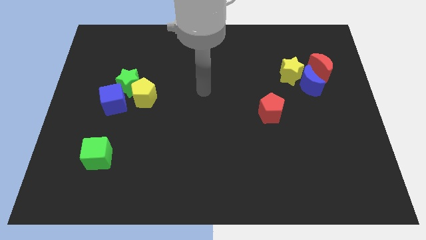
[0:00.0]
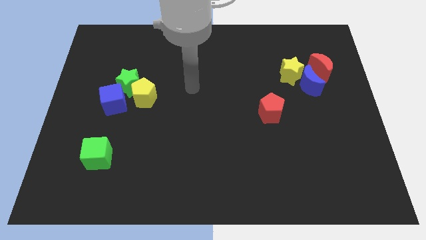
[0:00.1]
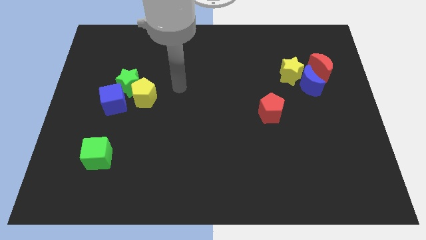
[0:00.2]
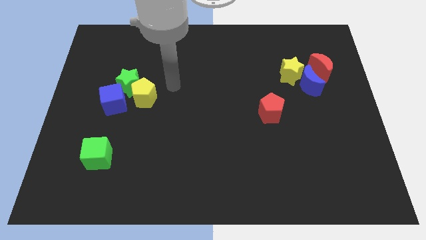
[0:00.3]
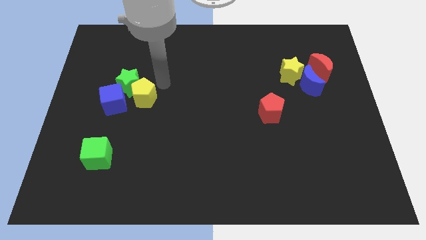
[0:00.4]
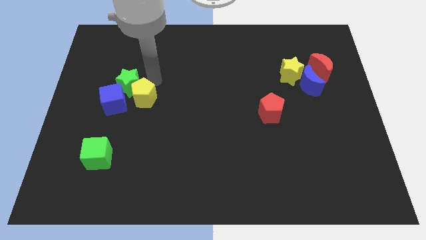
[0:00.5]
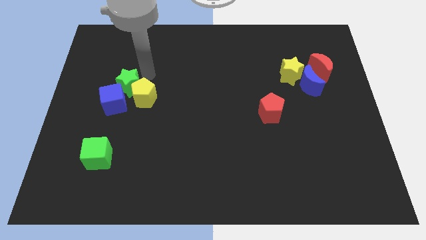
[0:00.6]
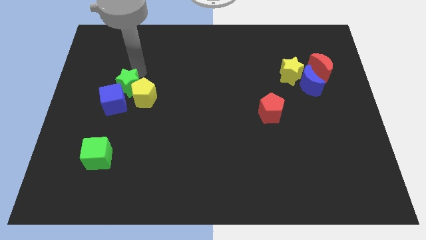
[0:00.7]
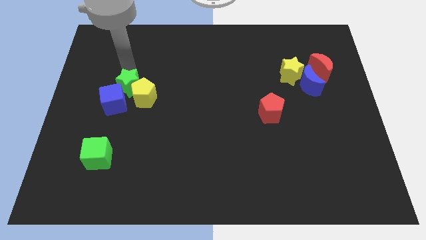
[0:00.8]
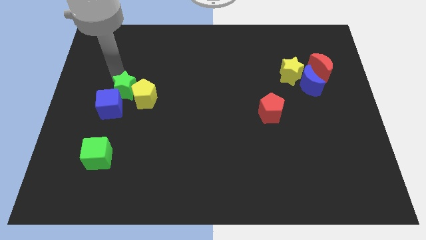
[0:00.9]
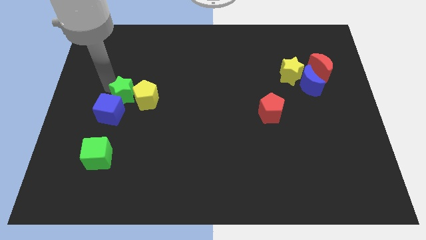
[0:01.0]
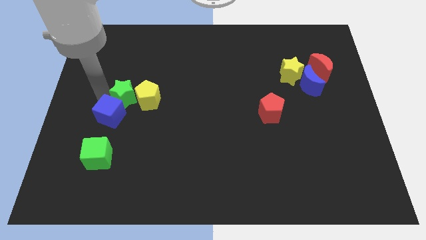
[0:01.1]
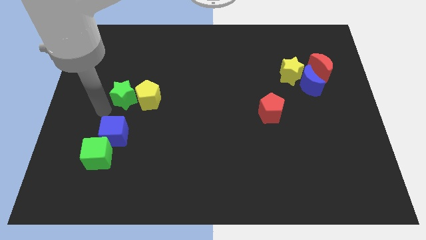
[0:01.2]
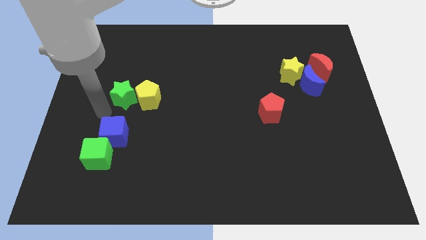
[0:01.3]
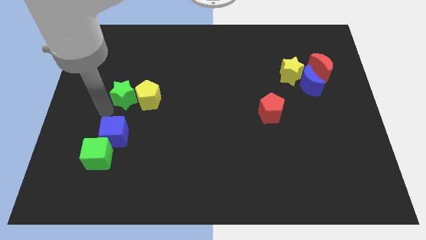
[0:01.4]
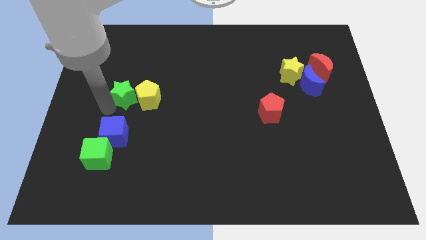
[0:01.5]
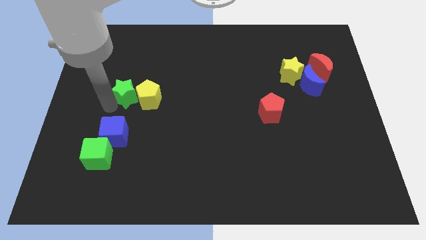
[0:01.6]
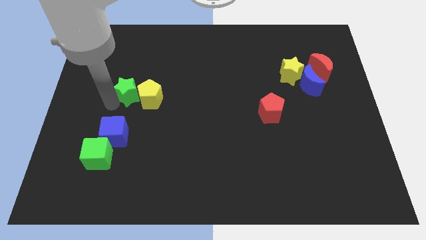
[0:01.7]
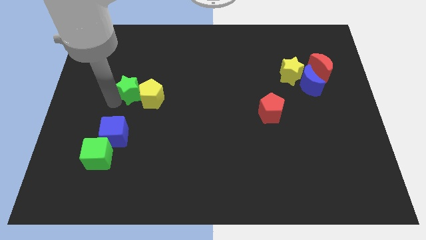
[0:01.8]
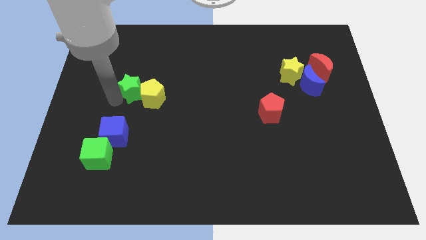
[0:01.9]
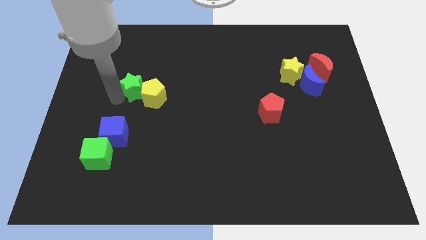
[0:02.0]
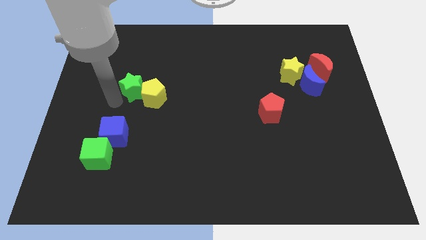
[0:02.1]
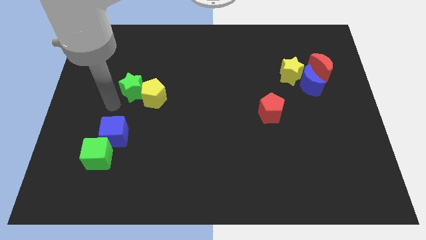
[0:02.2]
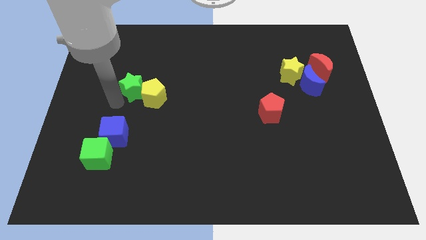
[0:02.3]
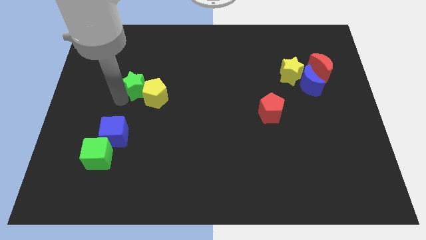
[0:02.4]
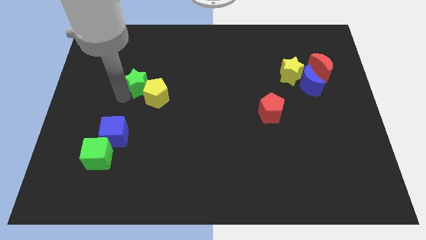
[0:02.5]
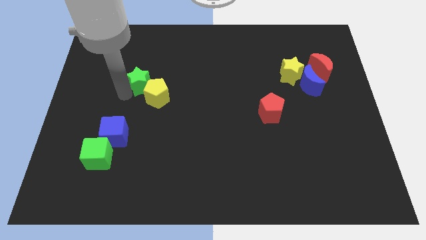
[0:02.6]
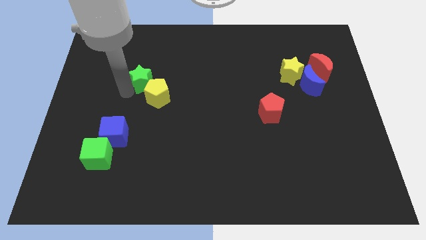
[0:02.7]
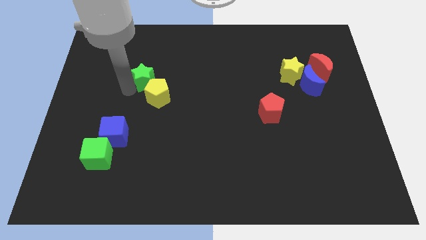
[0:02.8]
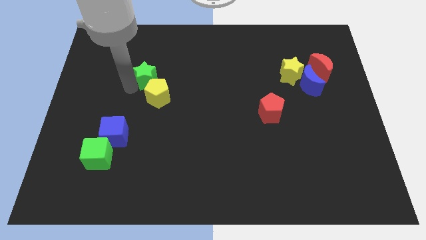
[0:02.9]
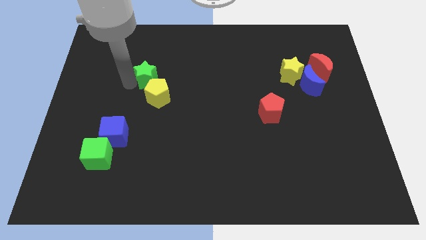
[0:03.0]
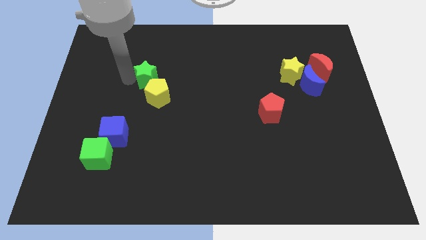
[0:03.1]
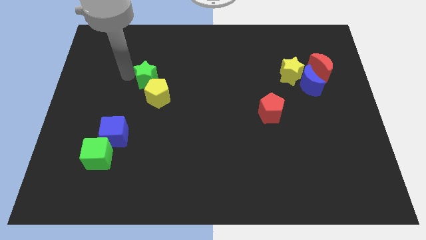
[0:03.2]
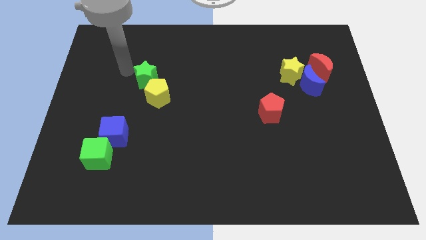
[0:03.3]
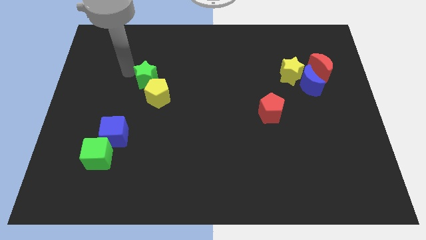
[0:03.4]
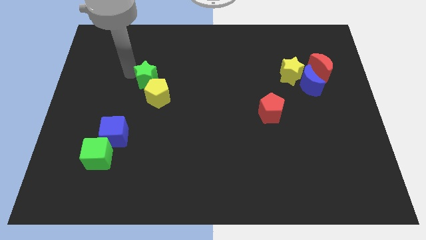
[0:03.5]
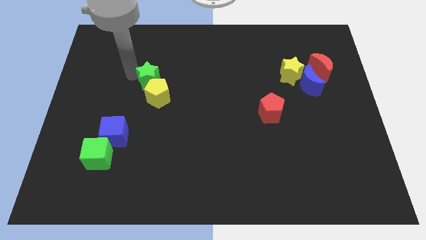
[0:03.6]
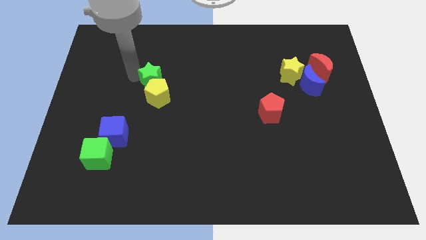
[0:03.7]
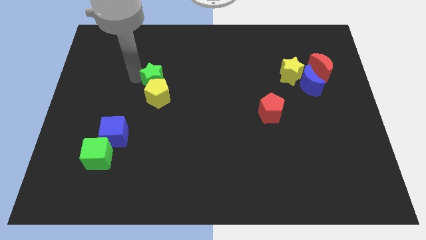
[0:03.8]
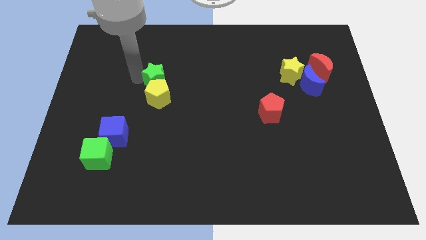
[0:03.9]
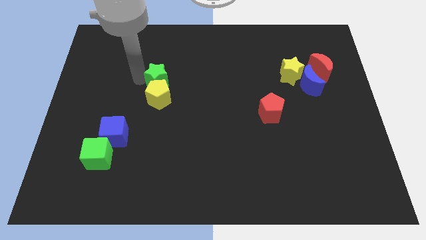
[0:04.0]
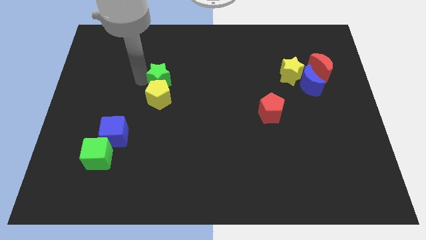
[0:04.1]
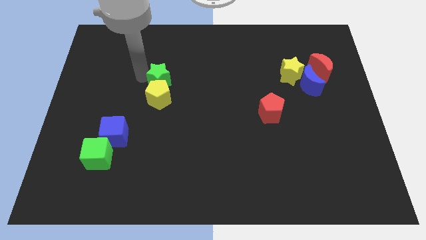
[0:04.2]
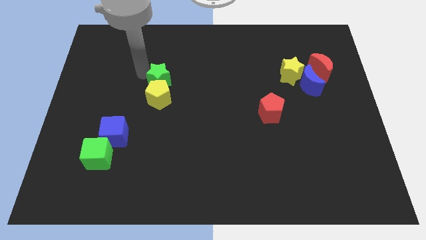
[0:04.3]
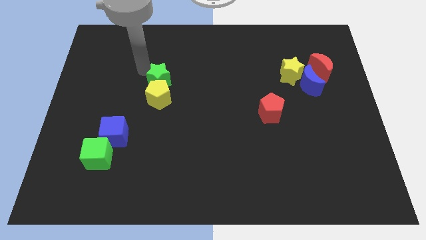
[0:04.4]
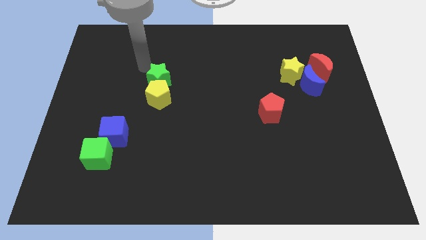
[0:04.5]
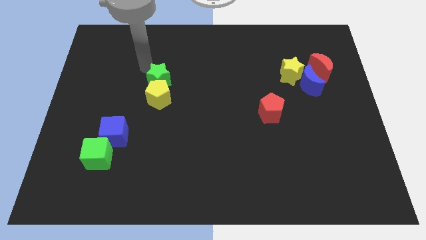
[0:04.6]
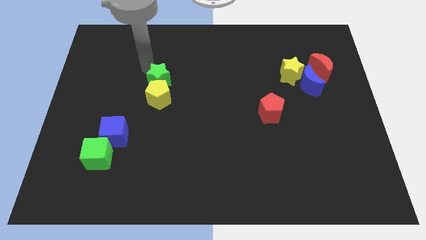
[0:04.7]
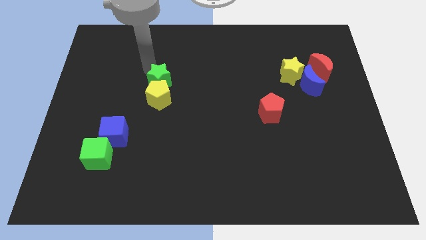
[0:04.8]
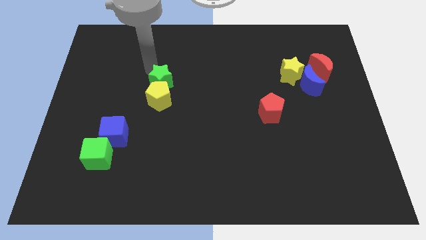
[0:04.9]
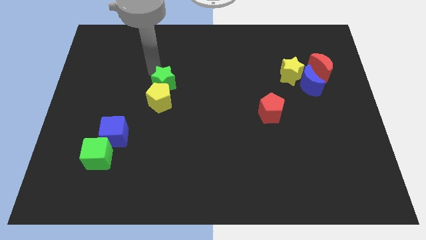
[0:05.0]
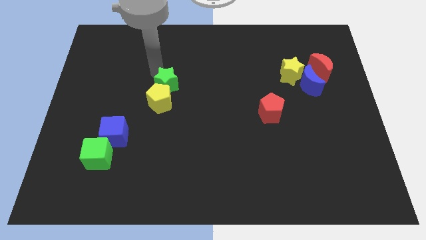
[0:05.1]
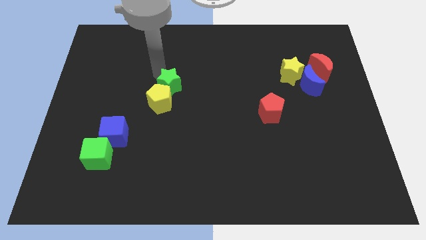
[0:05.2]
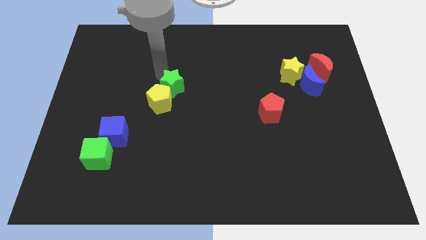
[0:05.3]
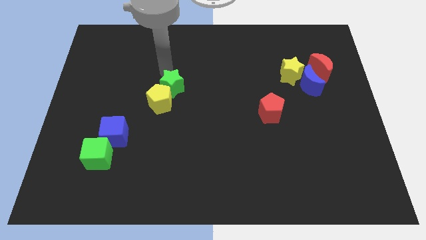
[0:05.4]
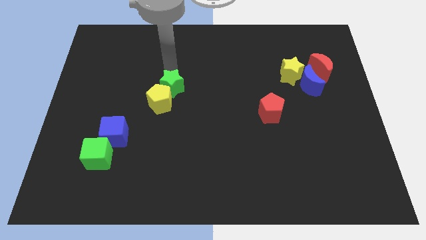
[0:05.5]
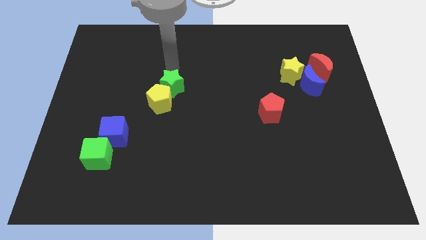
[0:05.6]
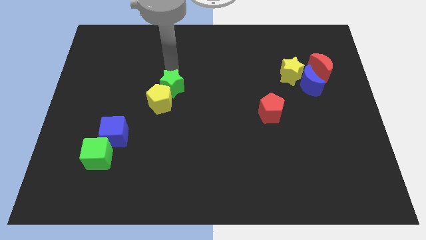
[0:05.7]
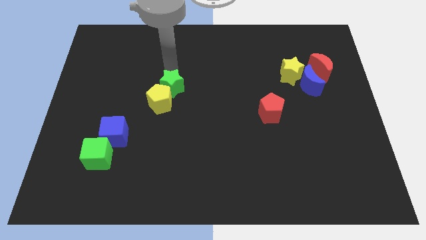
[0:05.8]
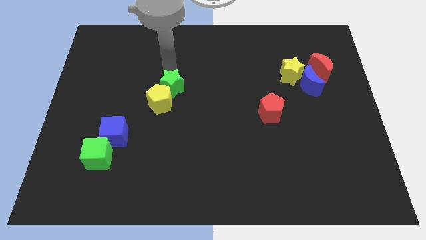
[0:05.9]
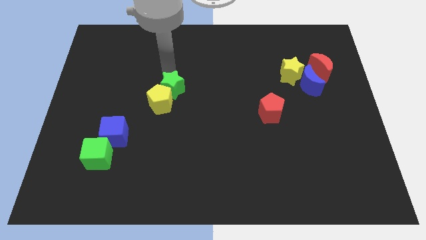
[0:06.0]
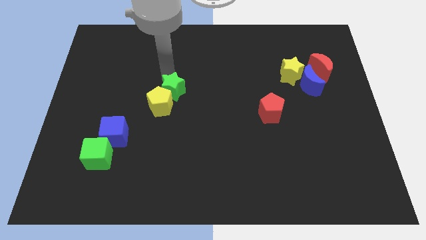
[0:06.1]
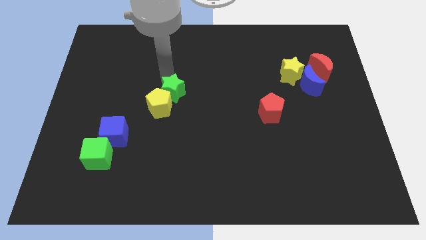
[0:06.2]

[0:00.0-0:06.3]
slide the green star down and right diagonally somewhat

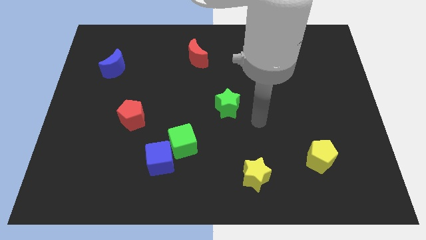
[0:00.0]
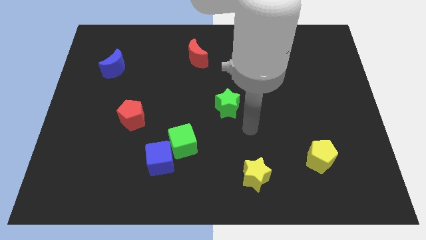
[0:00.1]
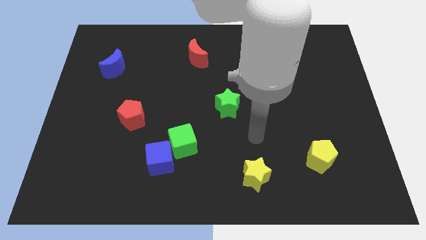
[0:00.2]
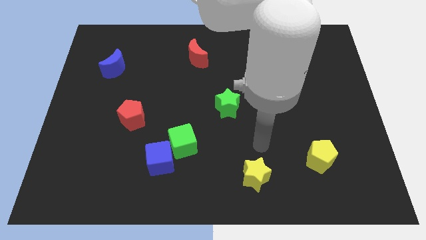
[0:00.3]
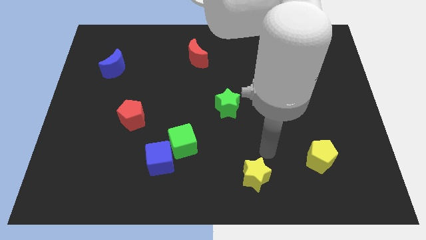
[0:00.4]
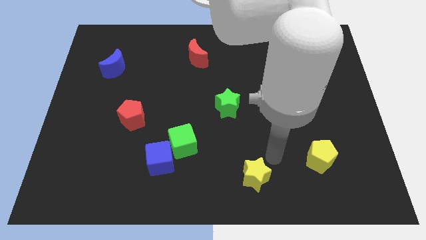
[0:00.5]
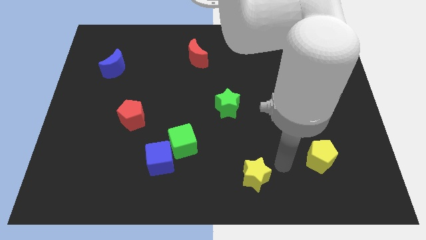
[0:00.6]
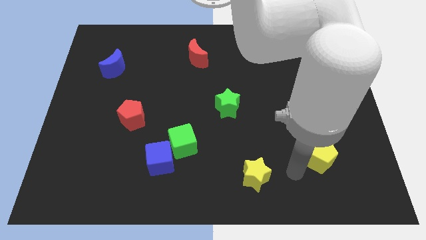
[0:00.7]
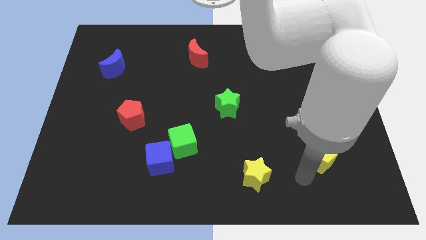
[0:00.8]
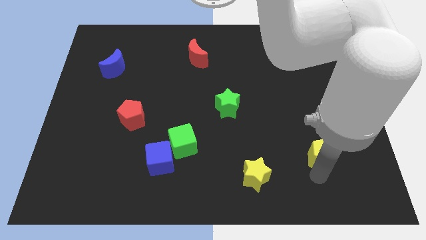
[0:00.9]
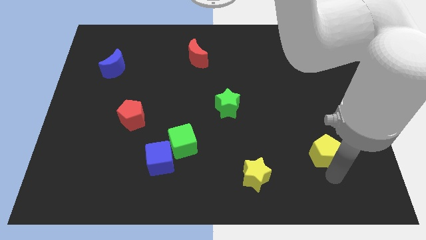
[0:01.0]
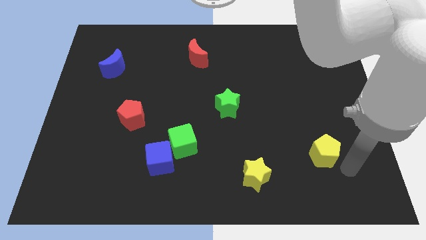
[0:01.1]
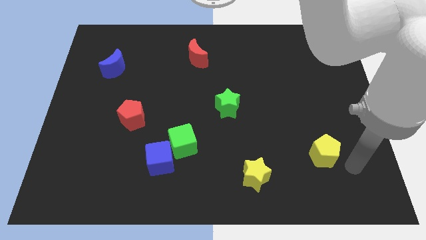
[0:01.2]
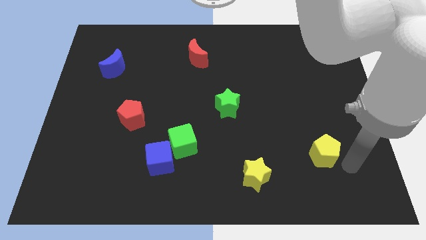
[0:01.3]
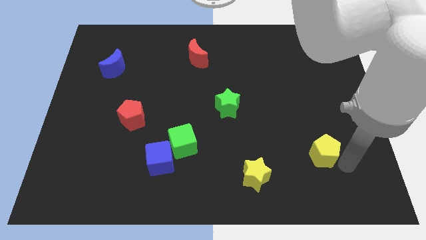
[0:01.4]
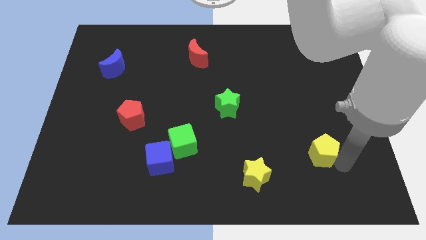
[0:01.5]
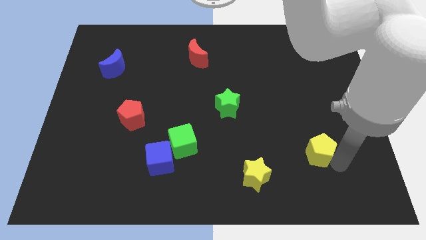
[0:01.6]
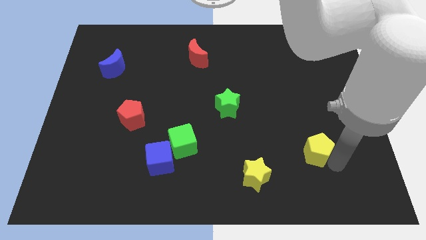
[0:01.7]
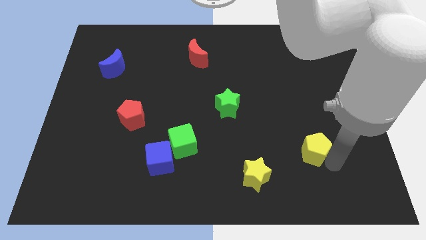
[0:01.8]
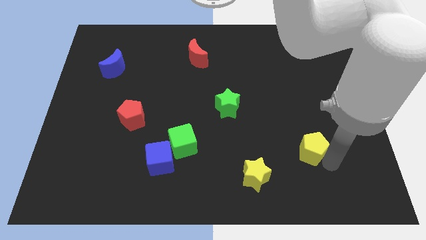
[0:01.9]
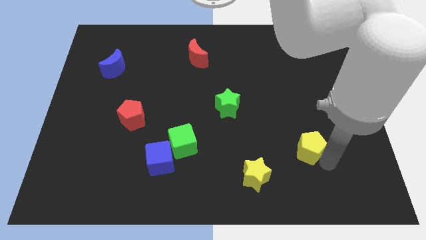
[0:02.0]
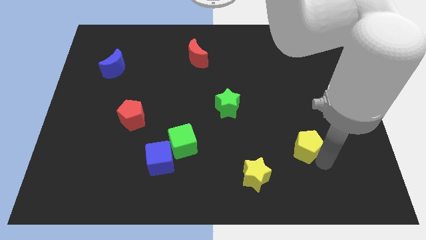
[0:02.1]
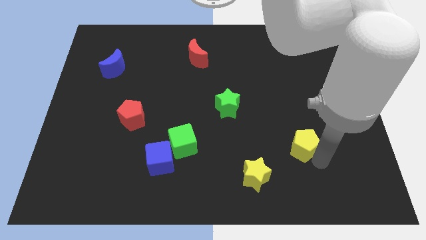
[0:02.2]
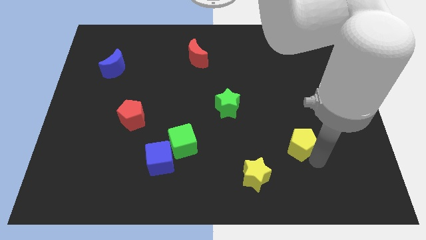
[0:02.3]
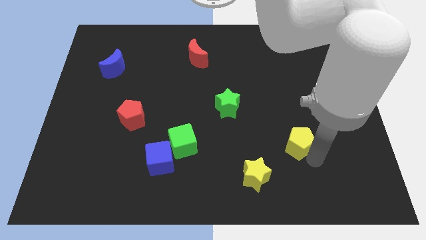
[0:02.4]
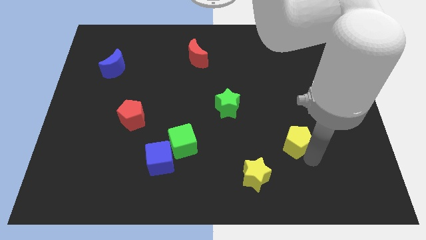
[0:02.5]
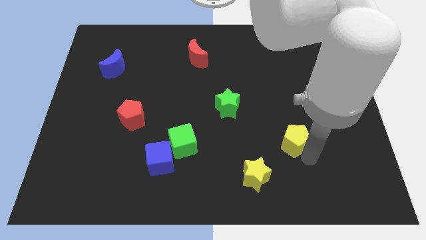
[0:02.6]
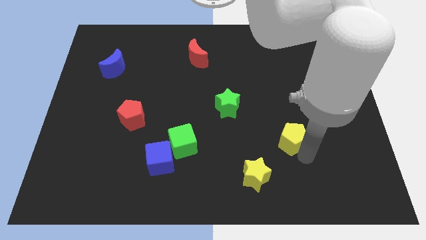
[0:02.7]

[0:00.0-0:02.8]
slightly move the yellow pentagon up and then left
